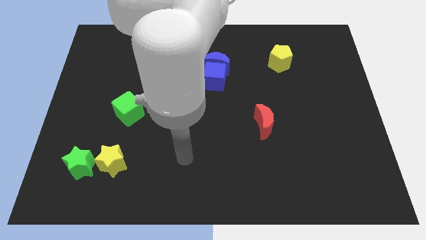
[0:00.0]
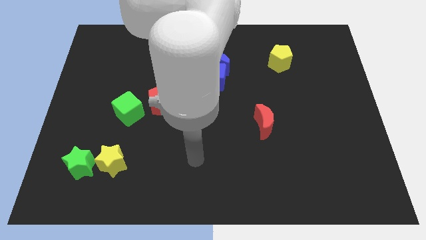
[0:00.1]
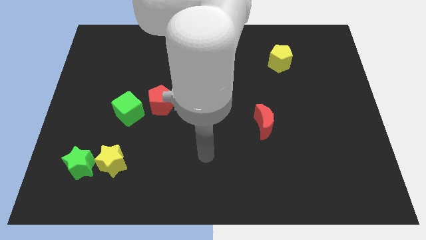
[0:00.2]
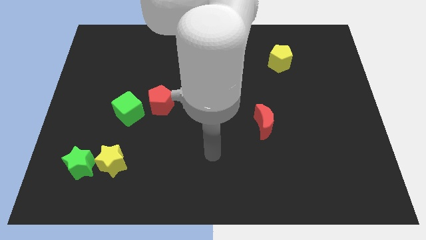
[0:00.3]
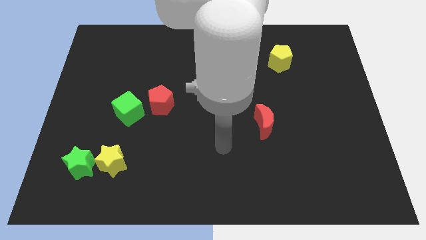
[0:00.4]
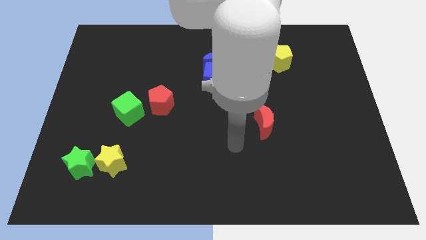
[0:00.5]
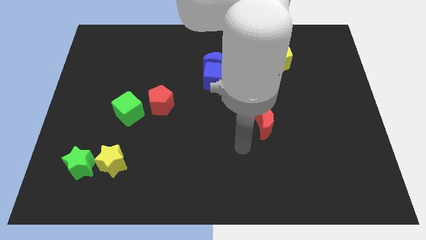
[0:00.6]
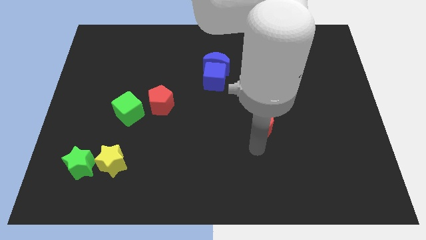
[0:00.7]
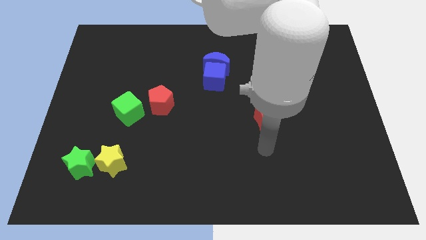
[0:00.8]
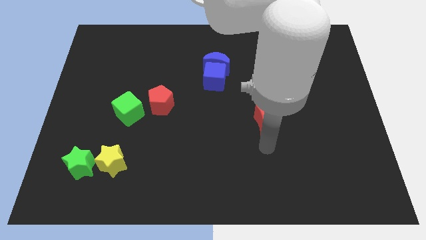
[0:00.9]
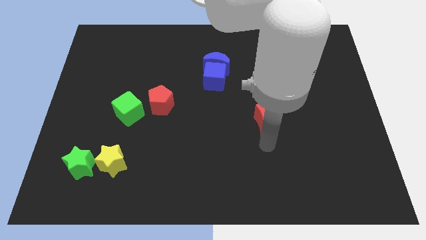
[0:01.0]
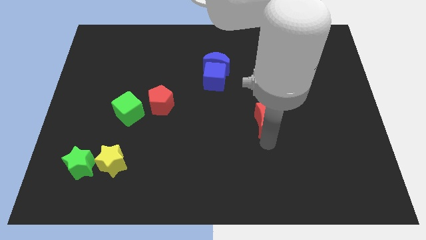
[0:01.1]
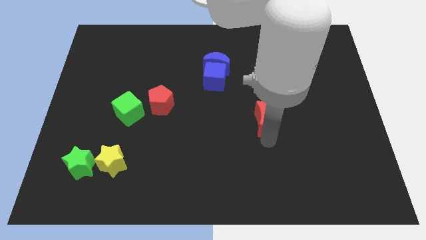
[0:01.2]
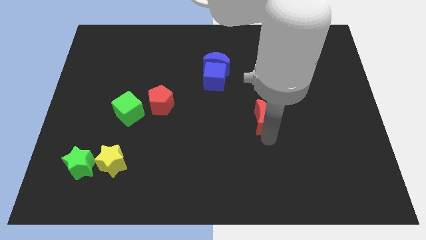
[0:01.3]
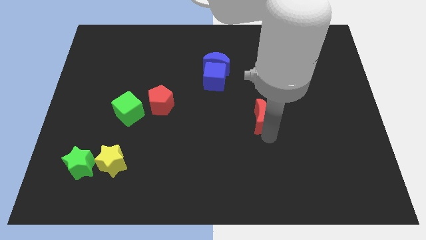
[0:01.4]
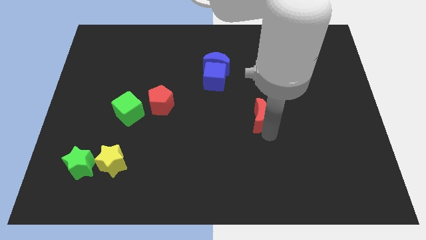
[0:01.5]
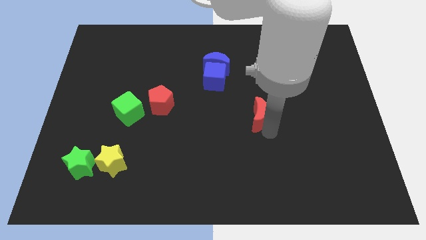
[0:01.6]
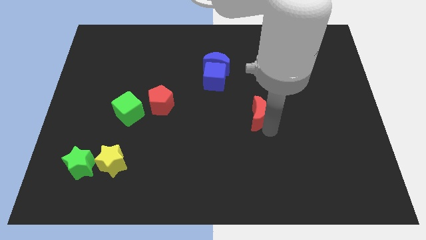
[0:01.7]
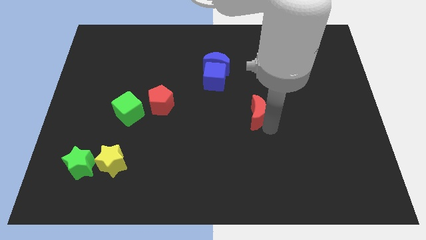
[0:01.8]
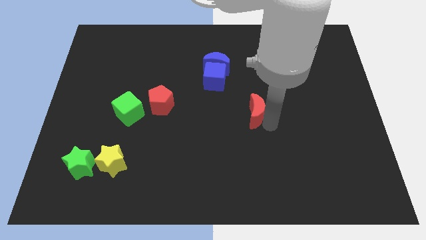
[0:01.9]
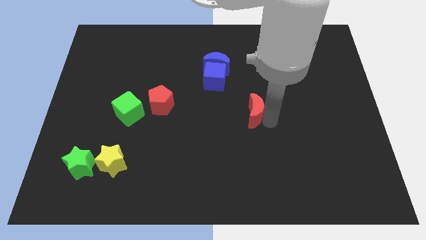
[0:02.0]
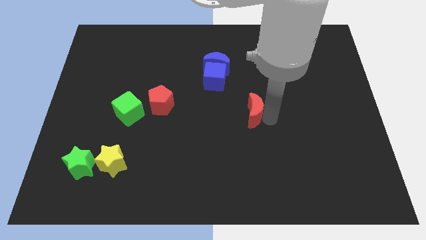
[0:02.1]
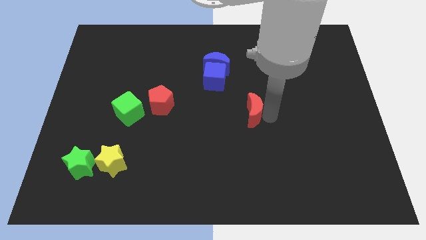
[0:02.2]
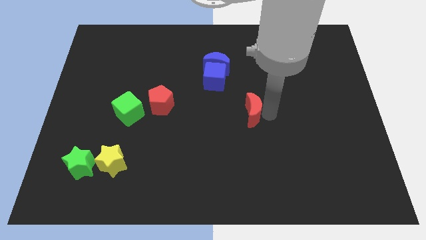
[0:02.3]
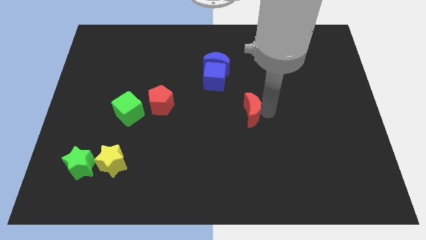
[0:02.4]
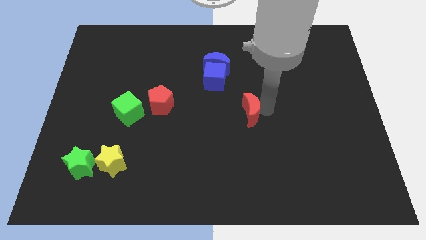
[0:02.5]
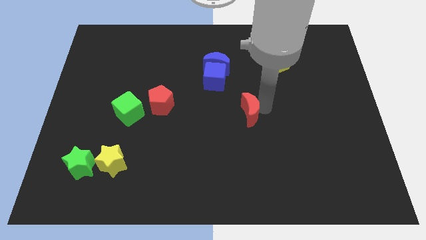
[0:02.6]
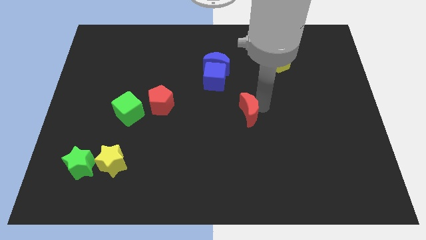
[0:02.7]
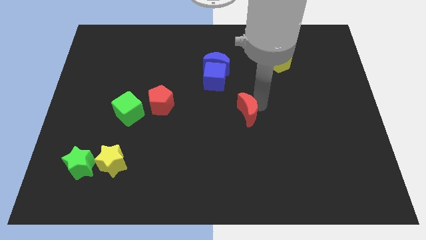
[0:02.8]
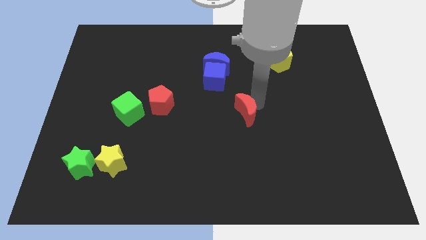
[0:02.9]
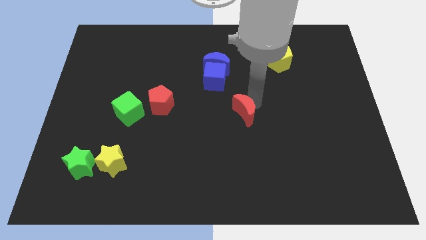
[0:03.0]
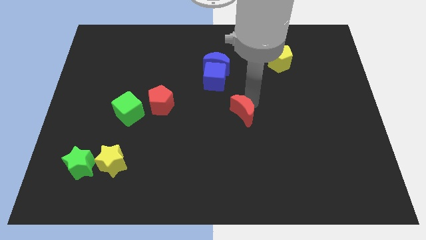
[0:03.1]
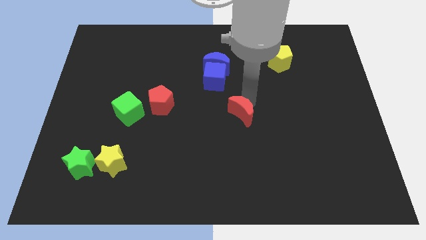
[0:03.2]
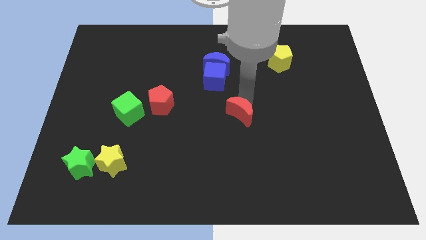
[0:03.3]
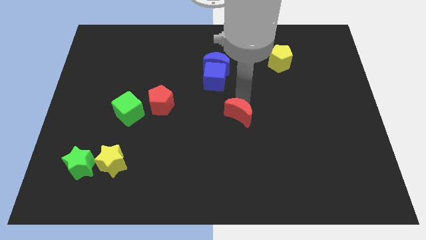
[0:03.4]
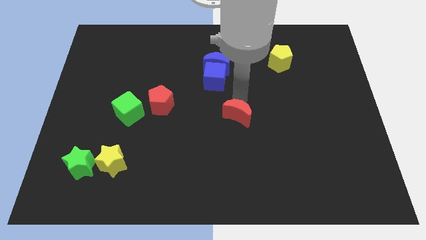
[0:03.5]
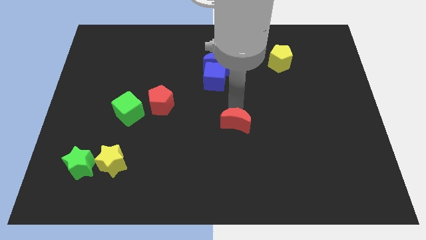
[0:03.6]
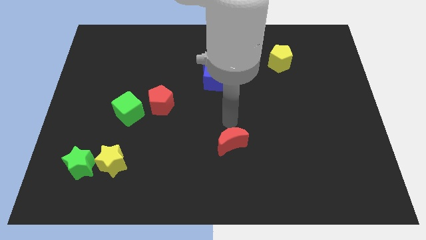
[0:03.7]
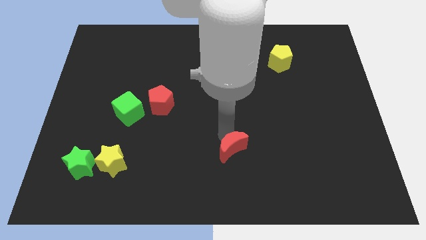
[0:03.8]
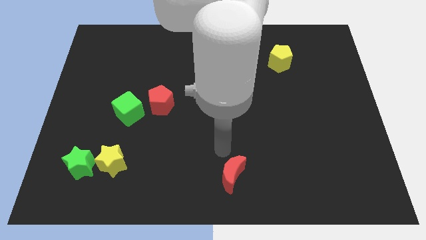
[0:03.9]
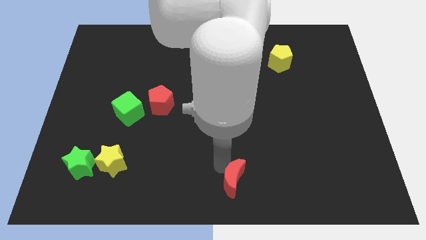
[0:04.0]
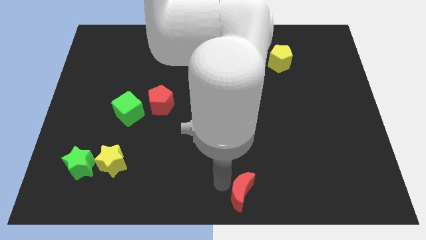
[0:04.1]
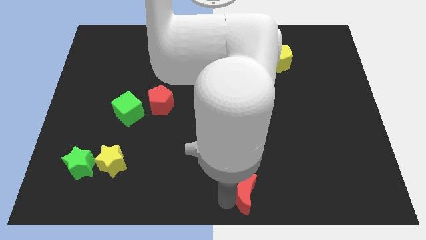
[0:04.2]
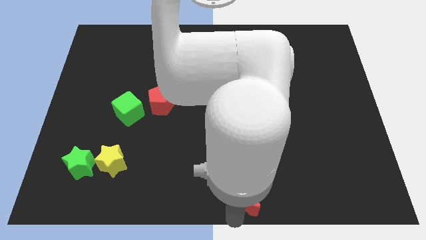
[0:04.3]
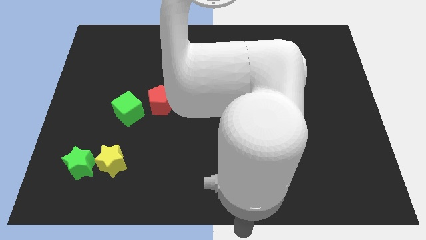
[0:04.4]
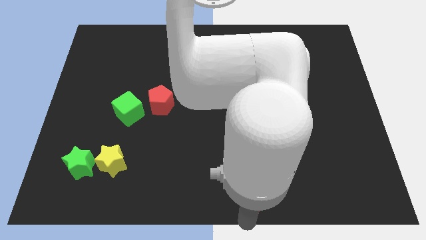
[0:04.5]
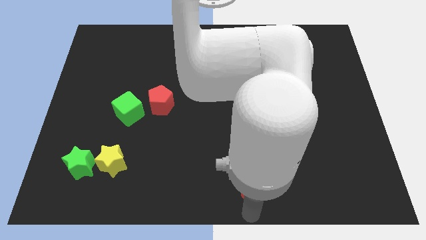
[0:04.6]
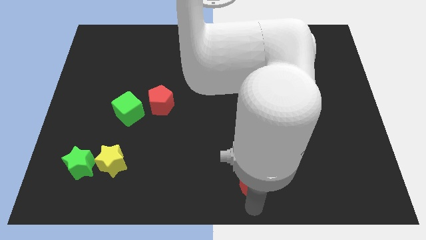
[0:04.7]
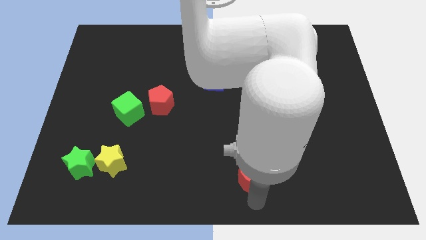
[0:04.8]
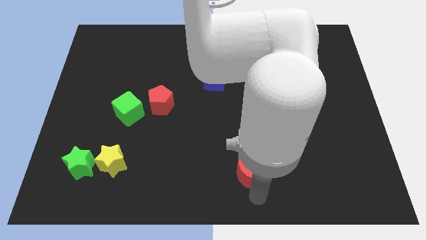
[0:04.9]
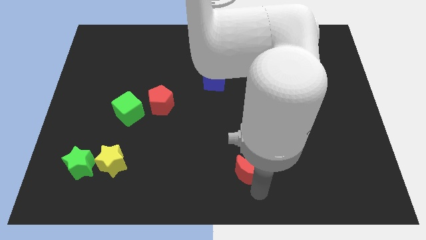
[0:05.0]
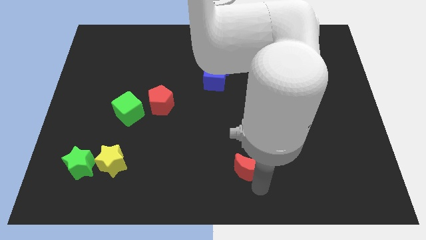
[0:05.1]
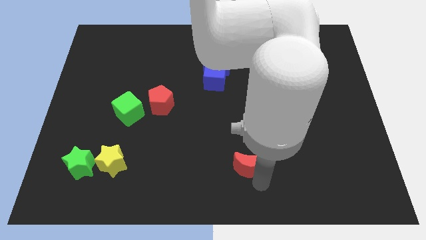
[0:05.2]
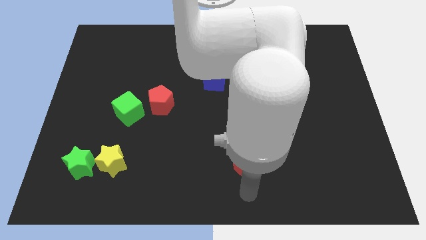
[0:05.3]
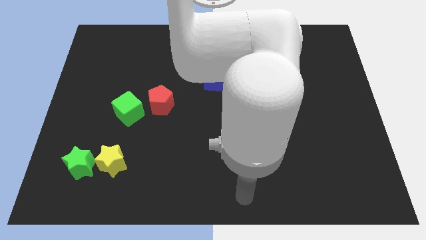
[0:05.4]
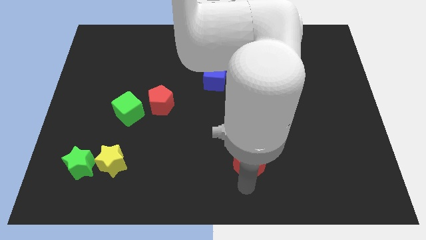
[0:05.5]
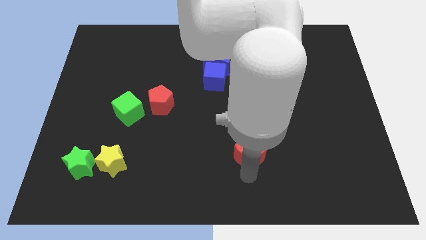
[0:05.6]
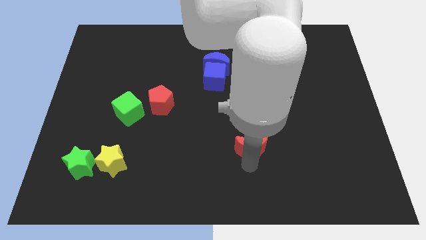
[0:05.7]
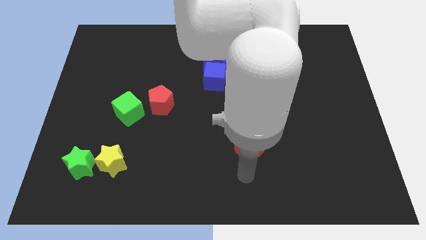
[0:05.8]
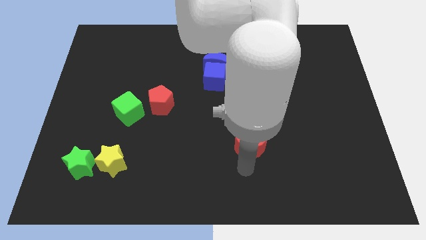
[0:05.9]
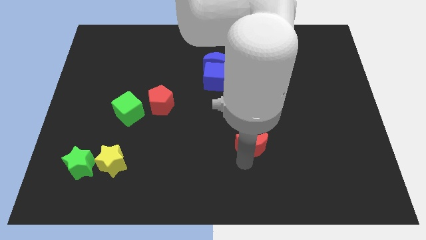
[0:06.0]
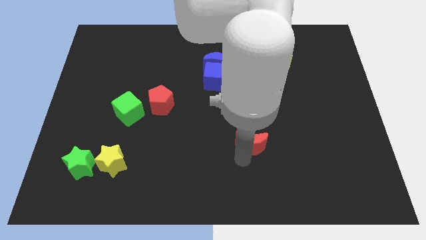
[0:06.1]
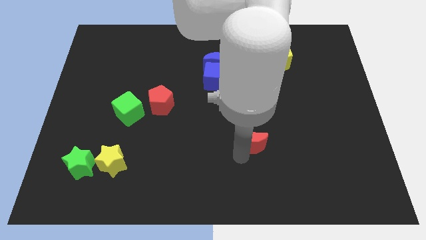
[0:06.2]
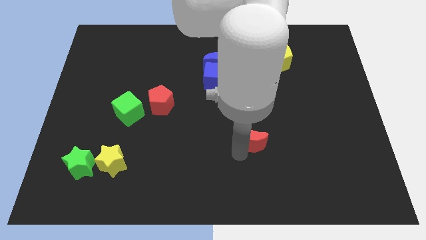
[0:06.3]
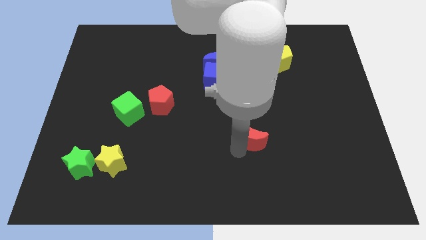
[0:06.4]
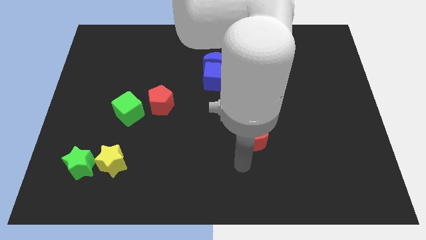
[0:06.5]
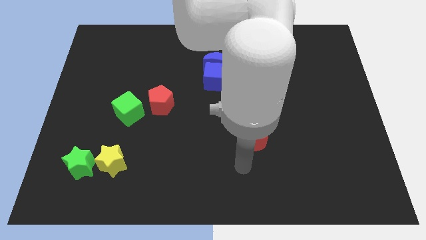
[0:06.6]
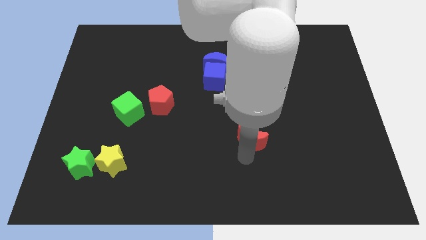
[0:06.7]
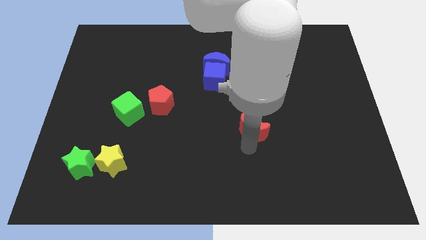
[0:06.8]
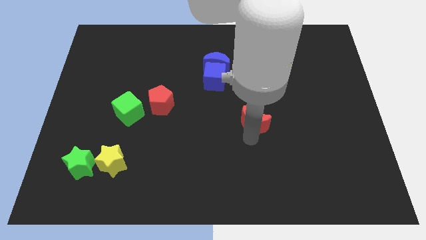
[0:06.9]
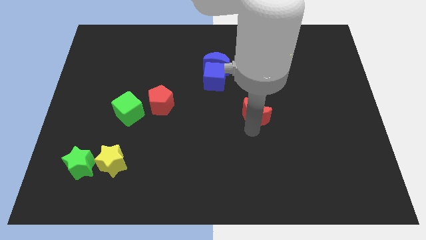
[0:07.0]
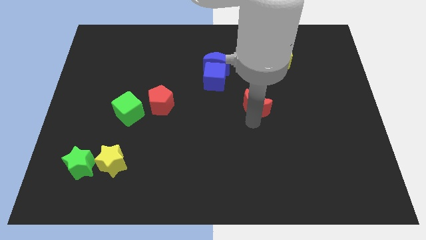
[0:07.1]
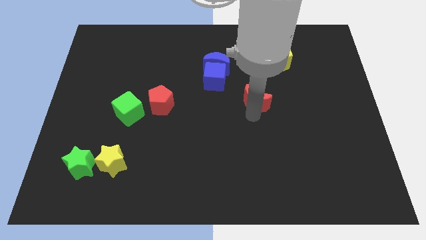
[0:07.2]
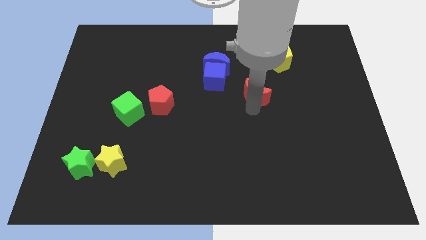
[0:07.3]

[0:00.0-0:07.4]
slightly slide the red moon up

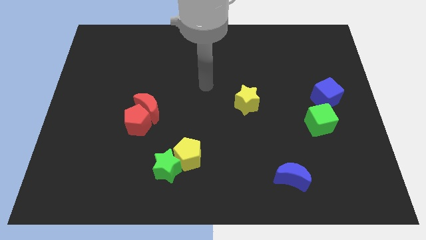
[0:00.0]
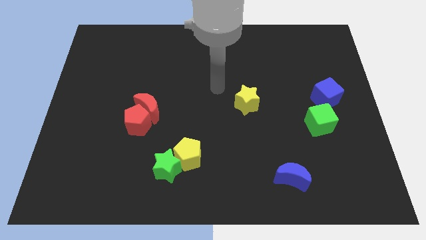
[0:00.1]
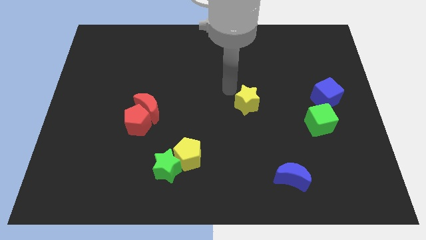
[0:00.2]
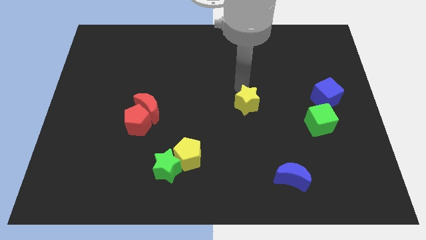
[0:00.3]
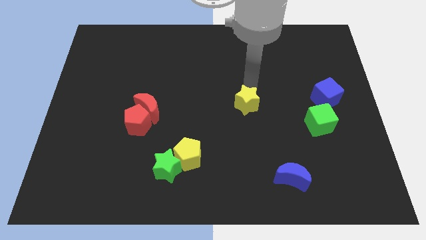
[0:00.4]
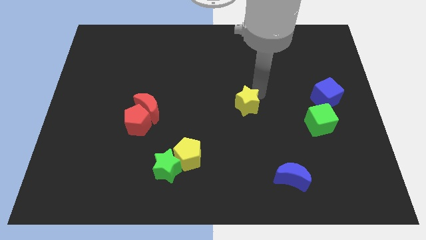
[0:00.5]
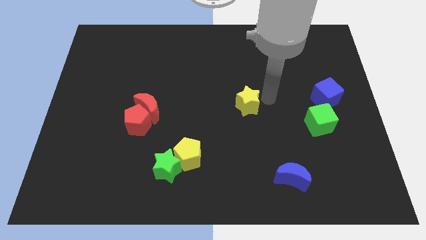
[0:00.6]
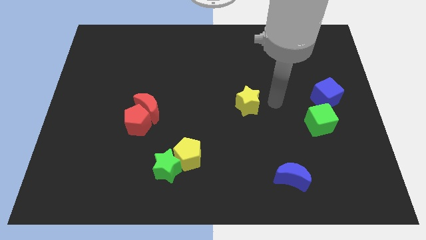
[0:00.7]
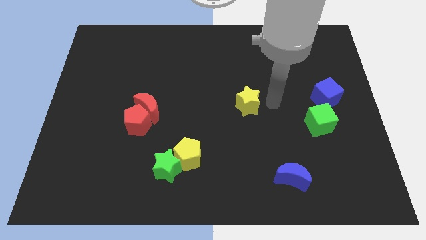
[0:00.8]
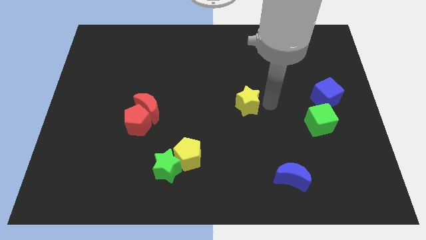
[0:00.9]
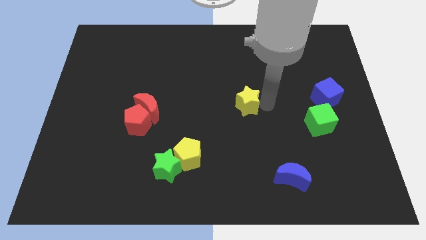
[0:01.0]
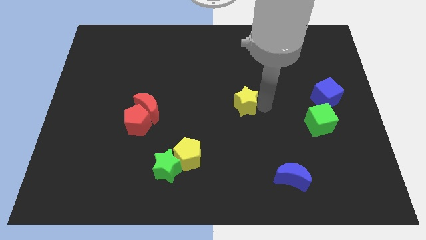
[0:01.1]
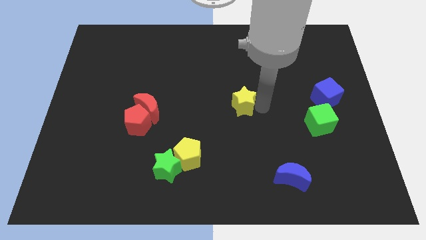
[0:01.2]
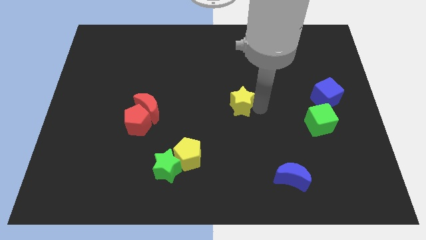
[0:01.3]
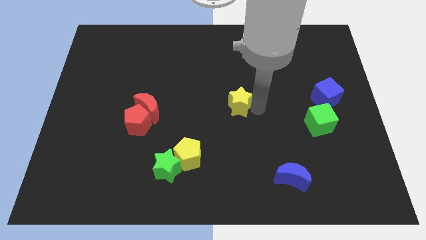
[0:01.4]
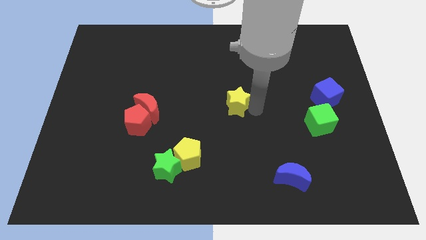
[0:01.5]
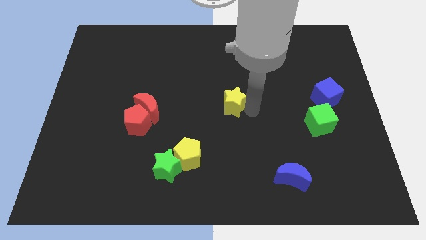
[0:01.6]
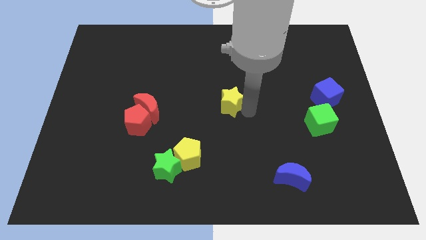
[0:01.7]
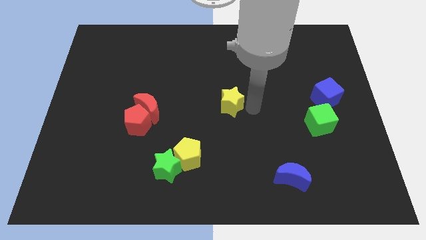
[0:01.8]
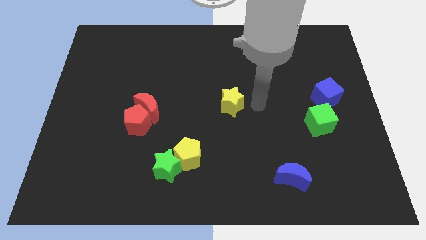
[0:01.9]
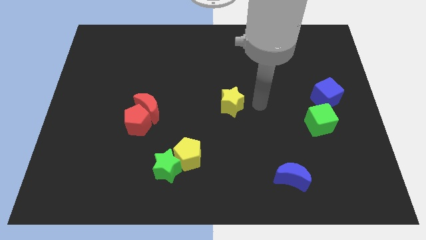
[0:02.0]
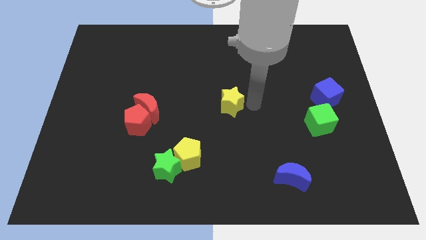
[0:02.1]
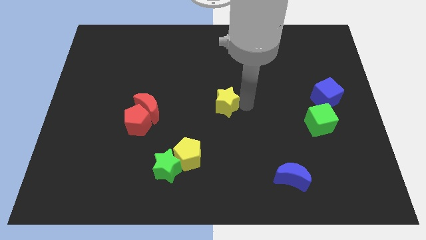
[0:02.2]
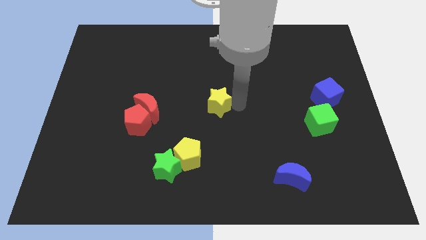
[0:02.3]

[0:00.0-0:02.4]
push the yellow star to the left slightly
